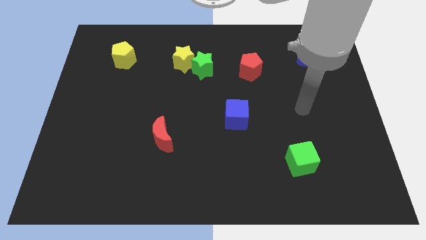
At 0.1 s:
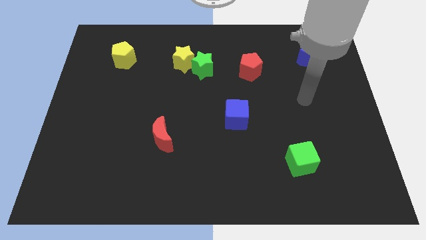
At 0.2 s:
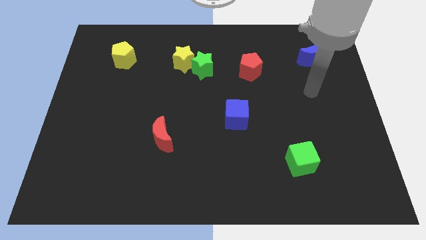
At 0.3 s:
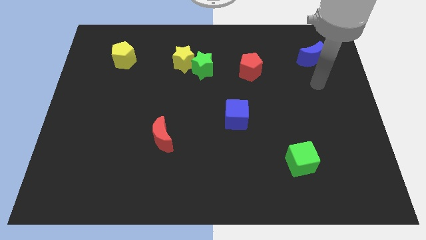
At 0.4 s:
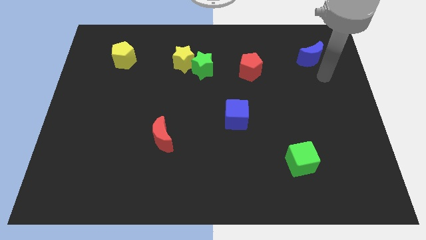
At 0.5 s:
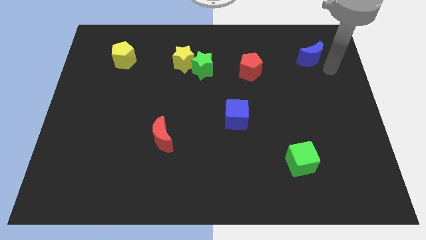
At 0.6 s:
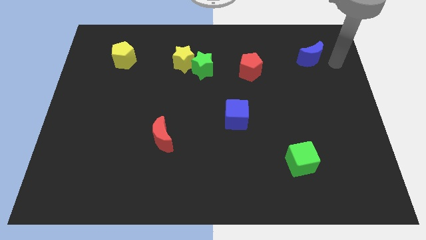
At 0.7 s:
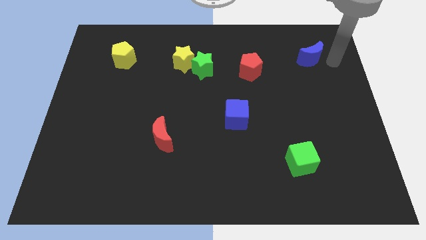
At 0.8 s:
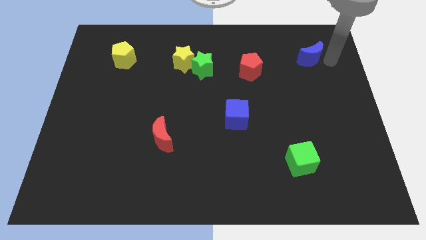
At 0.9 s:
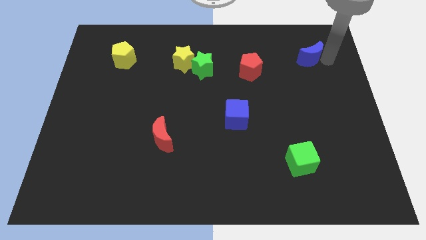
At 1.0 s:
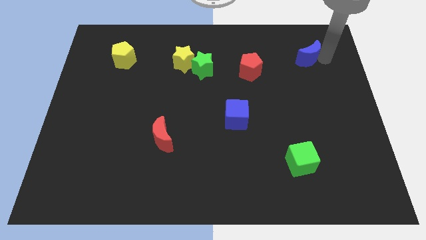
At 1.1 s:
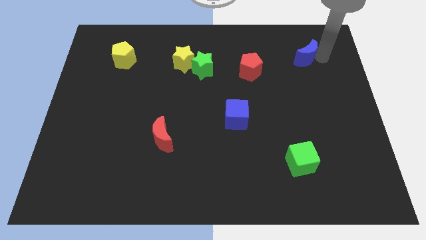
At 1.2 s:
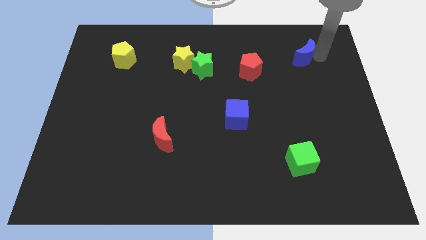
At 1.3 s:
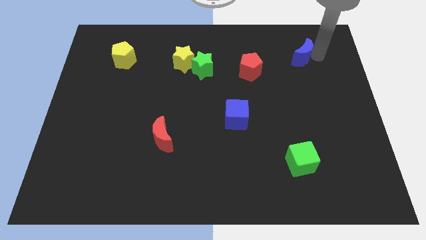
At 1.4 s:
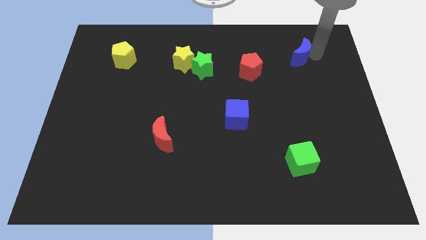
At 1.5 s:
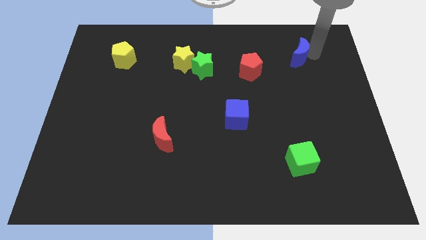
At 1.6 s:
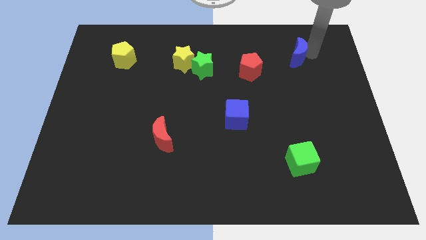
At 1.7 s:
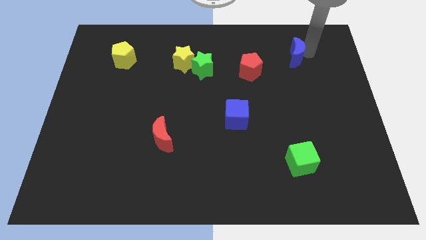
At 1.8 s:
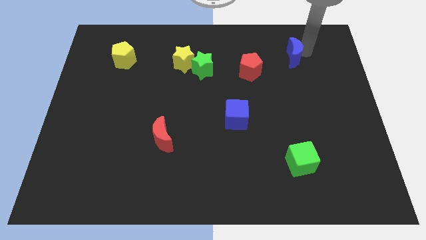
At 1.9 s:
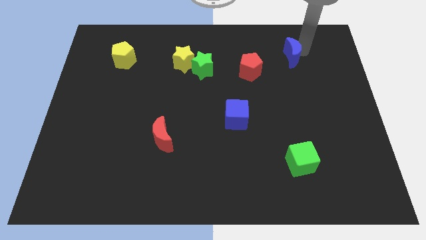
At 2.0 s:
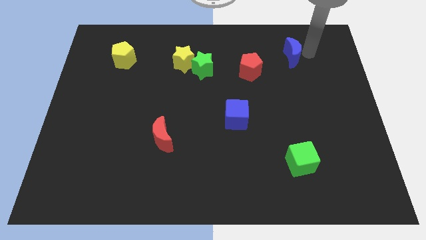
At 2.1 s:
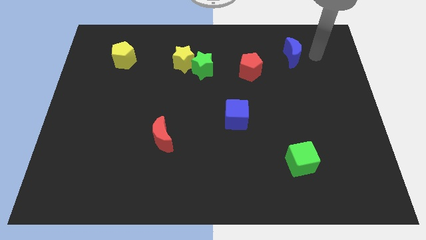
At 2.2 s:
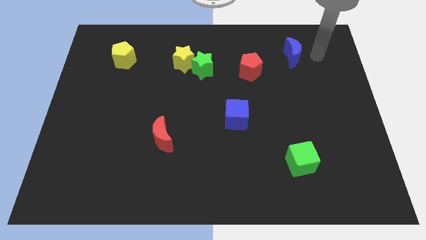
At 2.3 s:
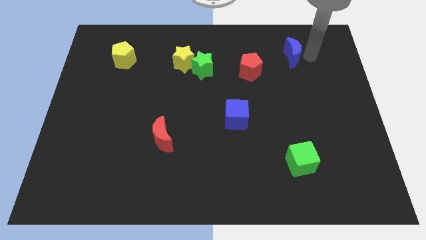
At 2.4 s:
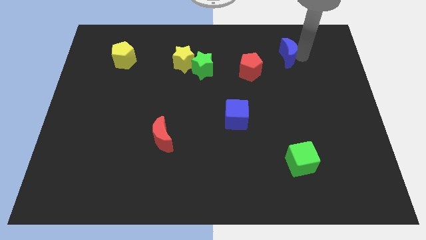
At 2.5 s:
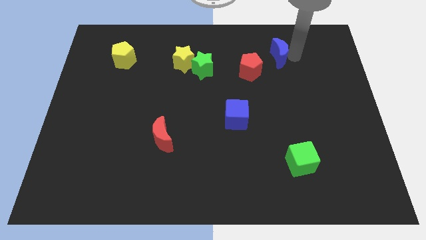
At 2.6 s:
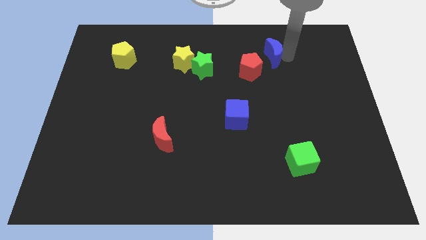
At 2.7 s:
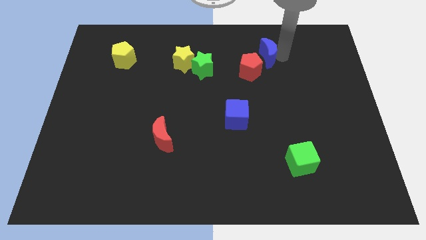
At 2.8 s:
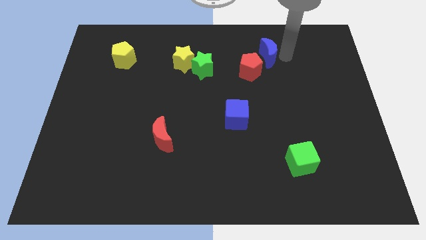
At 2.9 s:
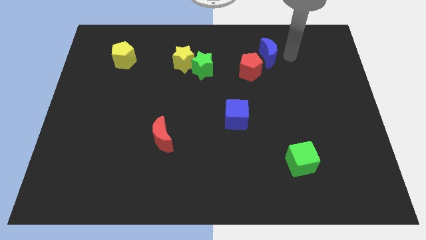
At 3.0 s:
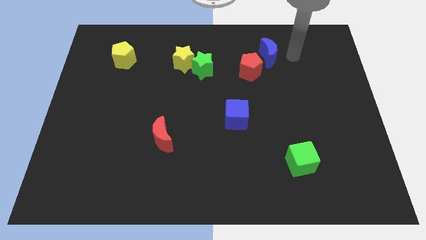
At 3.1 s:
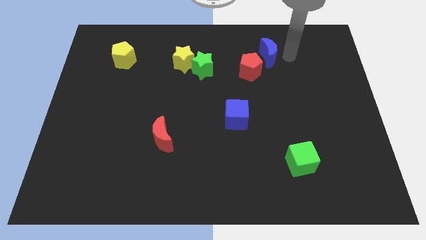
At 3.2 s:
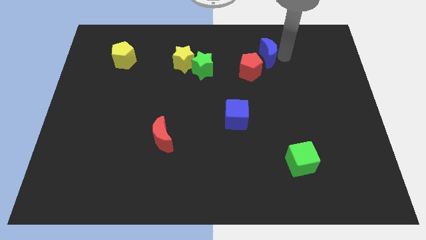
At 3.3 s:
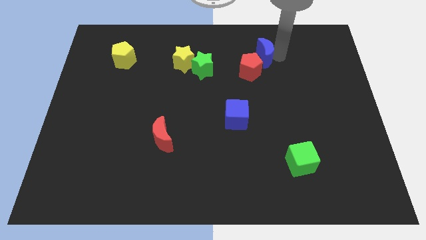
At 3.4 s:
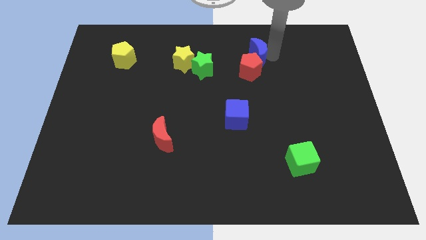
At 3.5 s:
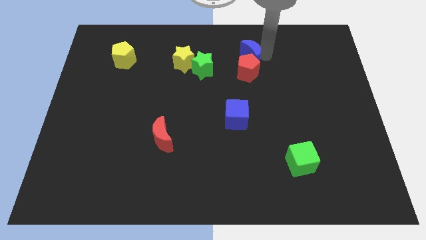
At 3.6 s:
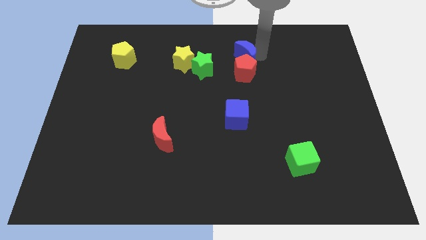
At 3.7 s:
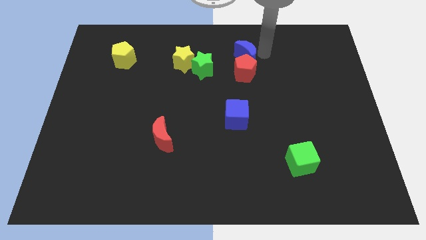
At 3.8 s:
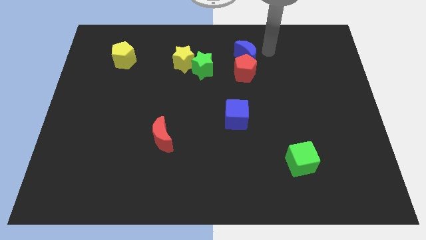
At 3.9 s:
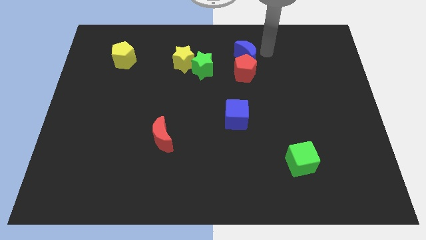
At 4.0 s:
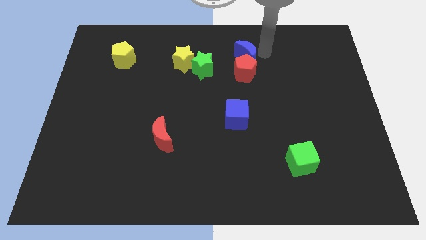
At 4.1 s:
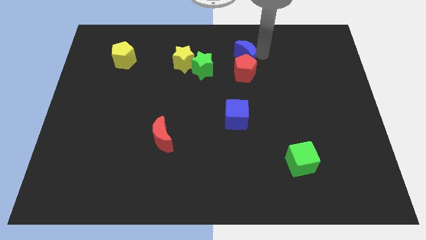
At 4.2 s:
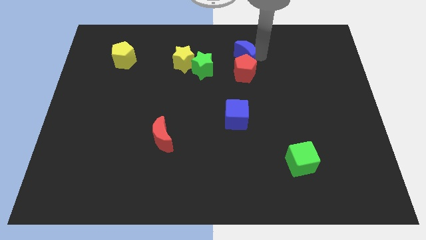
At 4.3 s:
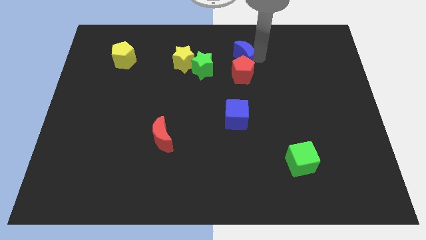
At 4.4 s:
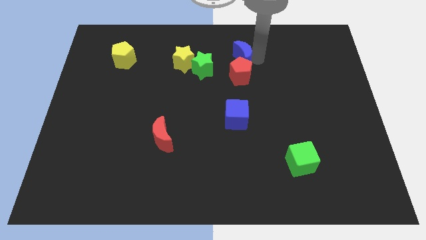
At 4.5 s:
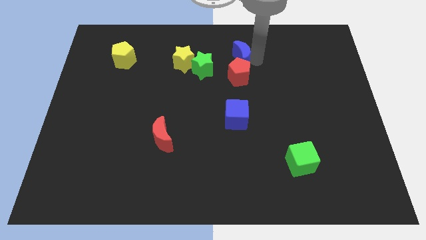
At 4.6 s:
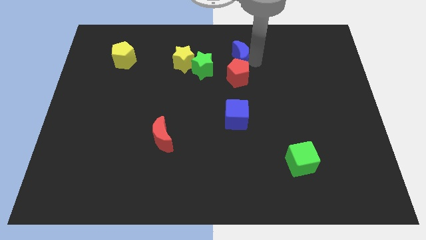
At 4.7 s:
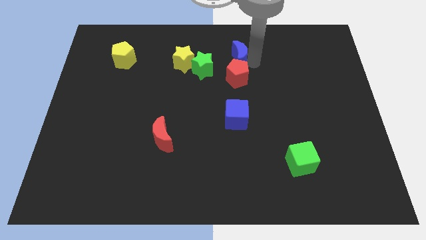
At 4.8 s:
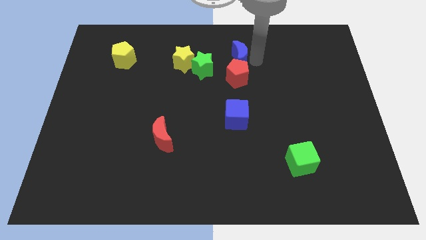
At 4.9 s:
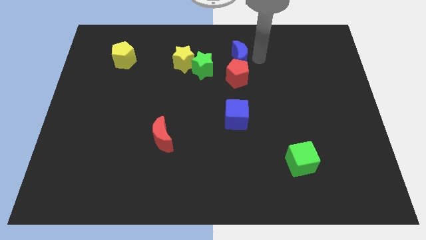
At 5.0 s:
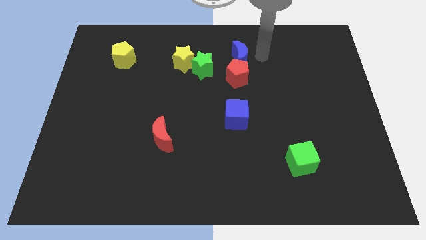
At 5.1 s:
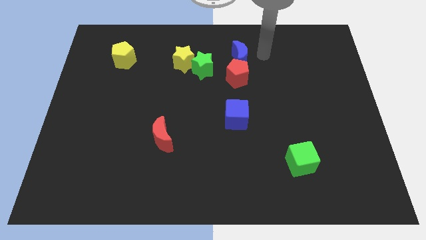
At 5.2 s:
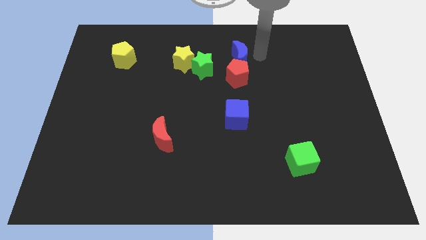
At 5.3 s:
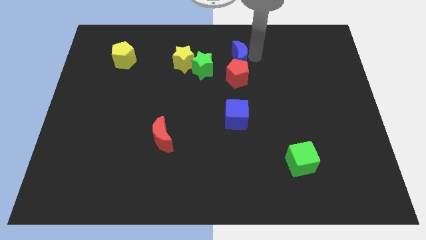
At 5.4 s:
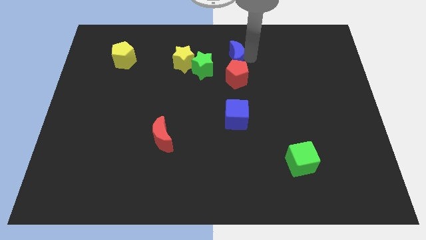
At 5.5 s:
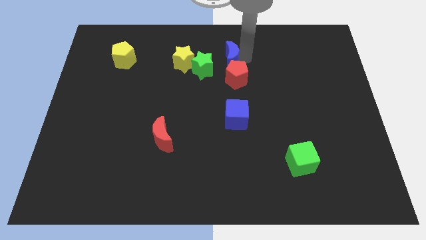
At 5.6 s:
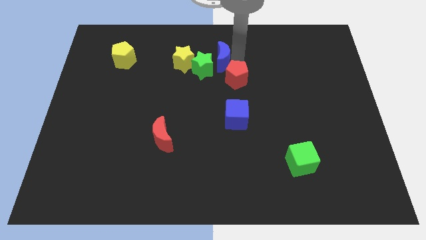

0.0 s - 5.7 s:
put the blue moon close to the green star

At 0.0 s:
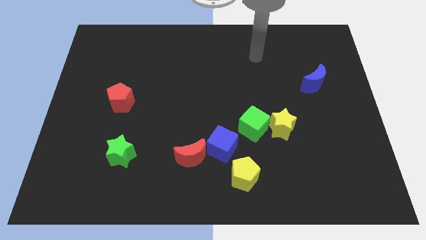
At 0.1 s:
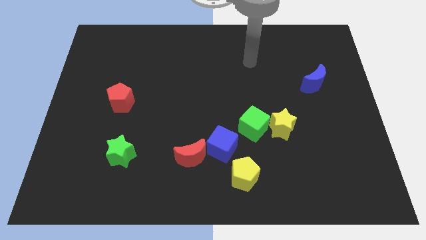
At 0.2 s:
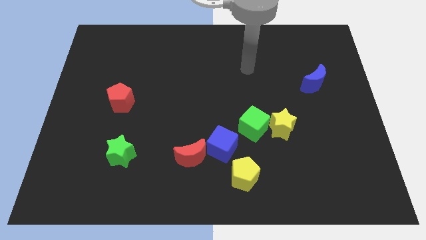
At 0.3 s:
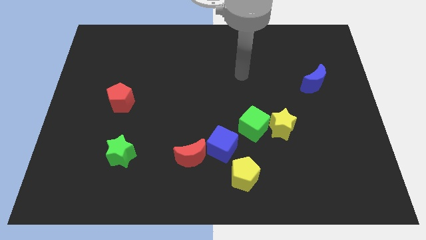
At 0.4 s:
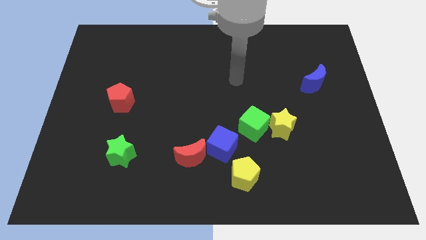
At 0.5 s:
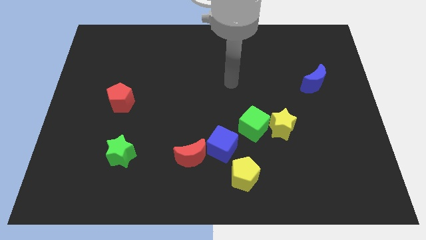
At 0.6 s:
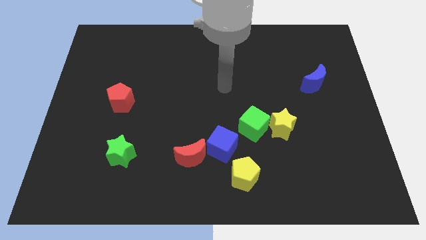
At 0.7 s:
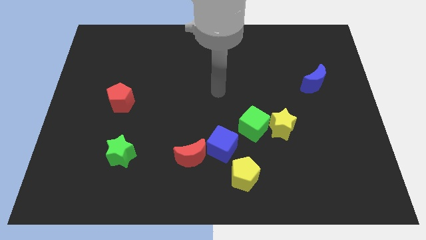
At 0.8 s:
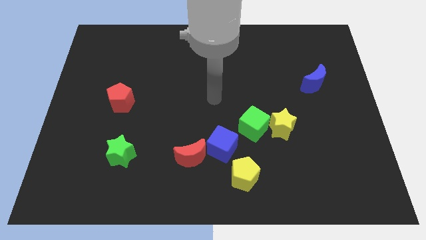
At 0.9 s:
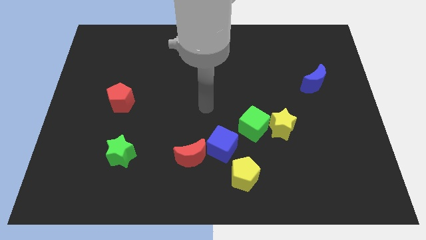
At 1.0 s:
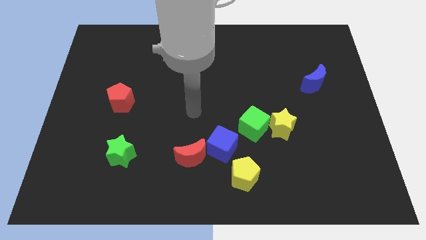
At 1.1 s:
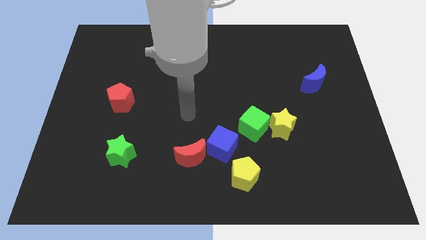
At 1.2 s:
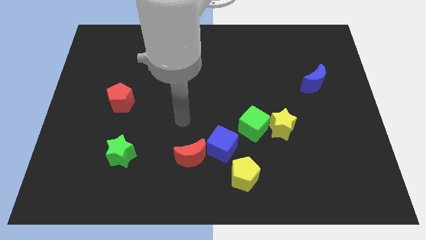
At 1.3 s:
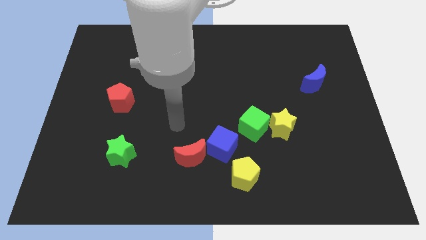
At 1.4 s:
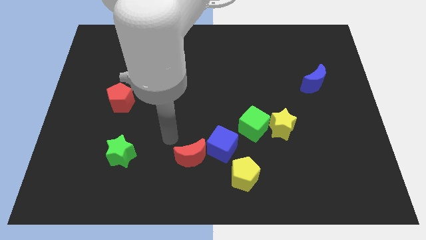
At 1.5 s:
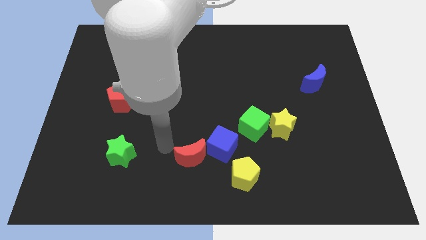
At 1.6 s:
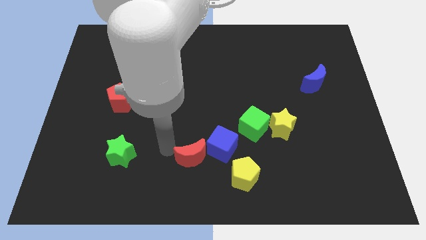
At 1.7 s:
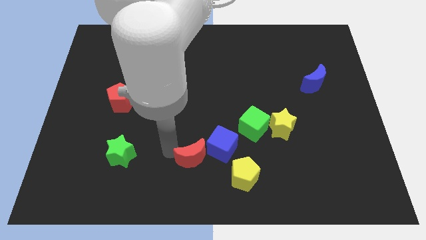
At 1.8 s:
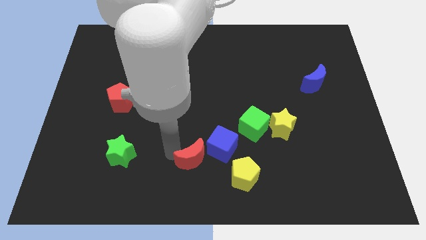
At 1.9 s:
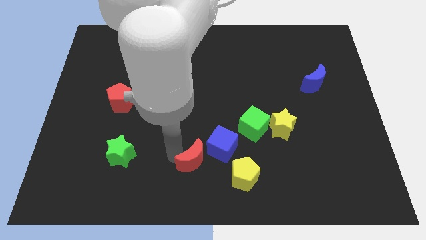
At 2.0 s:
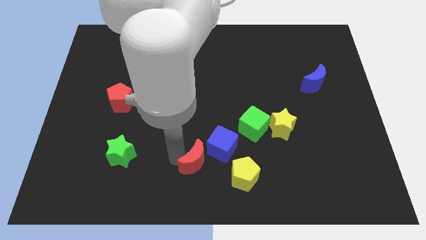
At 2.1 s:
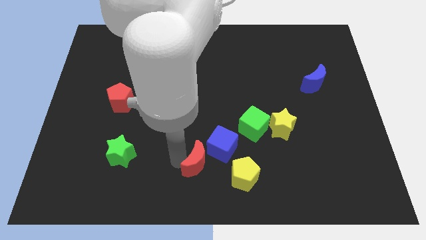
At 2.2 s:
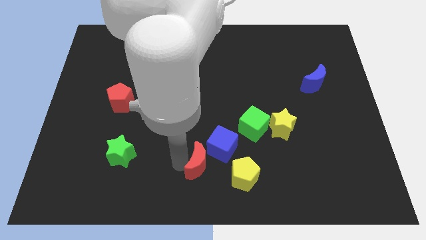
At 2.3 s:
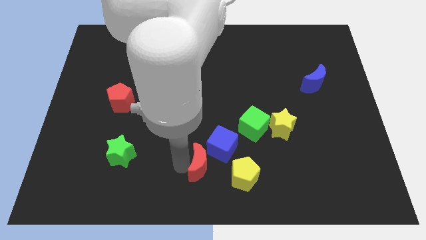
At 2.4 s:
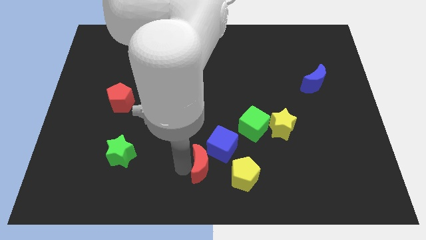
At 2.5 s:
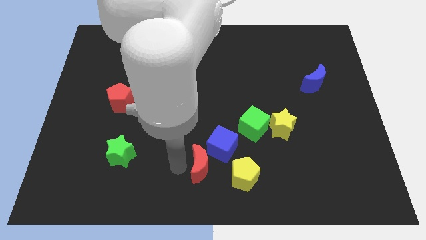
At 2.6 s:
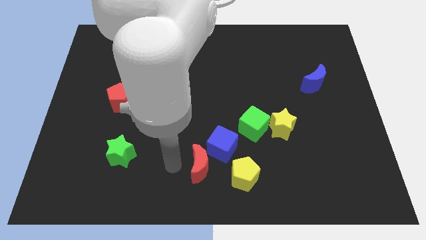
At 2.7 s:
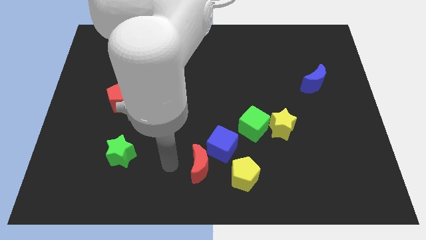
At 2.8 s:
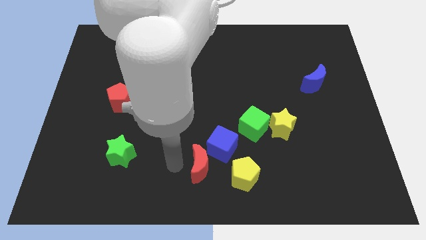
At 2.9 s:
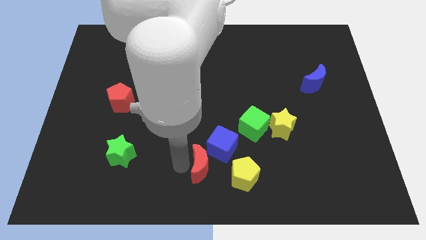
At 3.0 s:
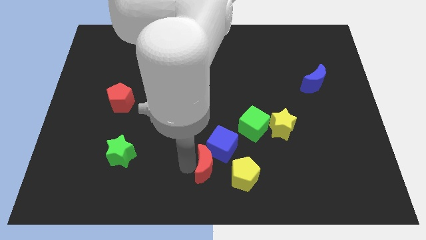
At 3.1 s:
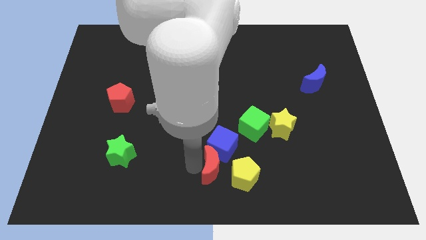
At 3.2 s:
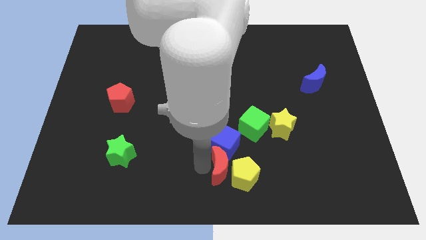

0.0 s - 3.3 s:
put the red moon next to the yellow pentagon
